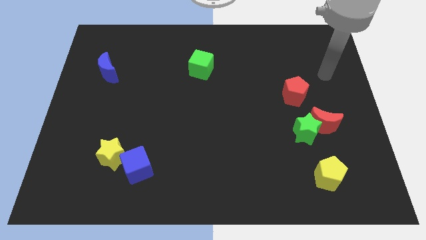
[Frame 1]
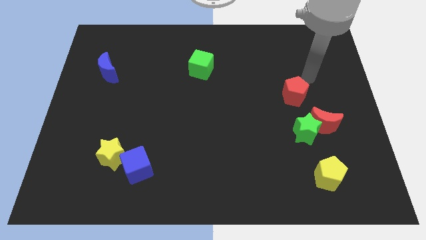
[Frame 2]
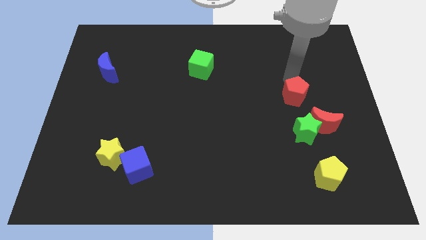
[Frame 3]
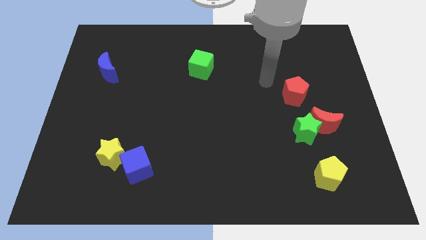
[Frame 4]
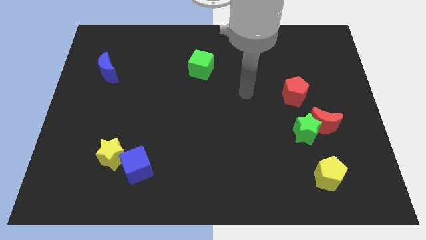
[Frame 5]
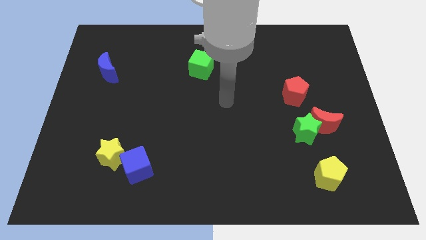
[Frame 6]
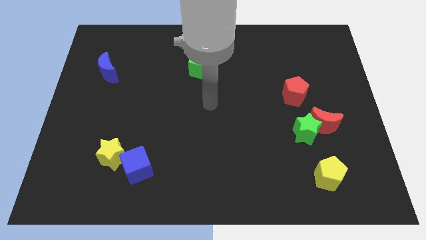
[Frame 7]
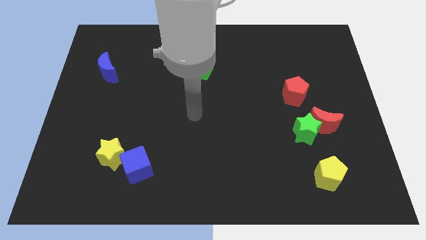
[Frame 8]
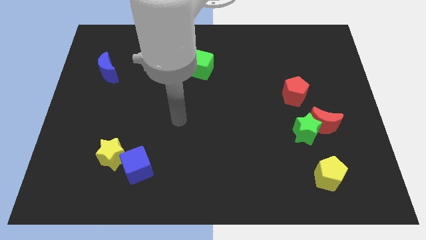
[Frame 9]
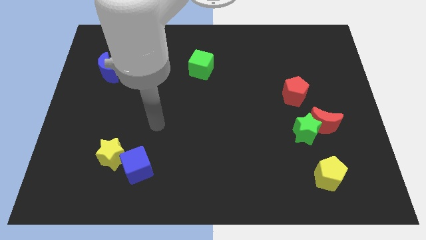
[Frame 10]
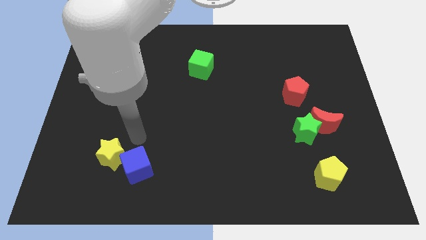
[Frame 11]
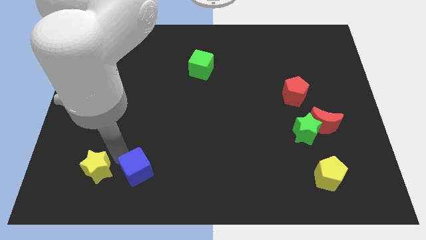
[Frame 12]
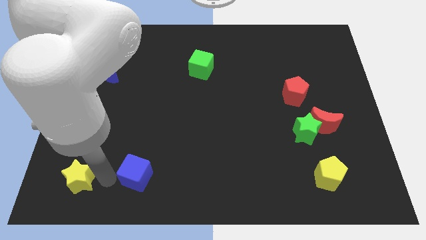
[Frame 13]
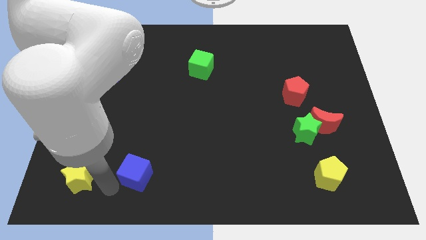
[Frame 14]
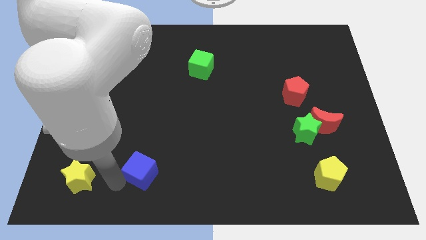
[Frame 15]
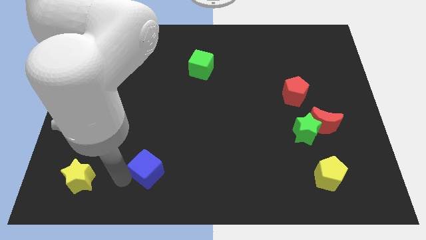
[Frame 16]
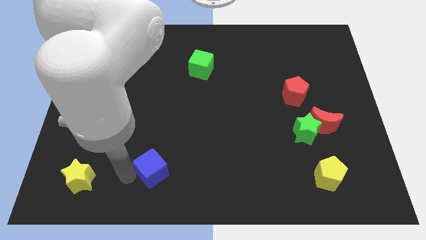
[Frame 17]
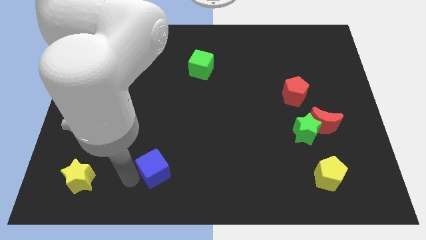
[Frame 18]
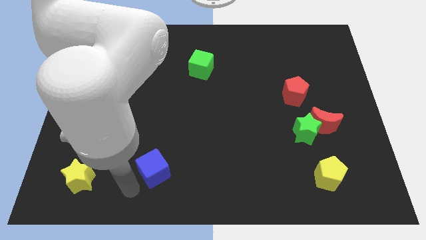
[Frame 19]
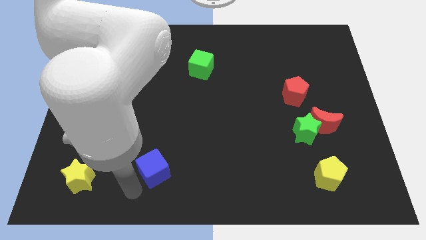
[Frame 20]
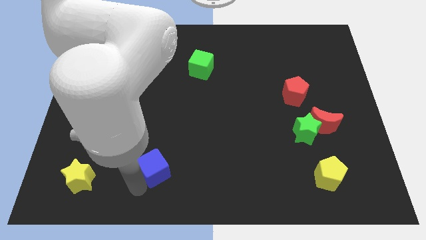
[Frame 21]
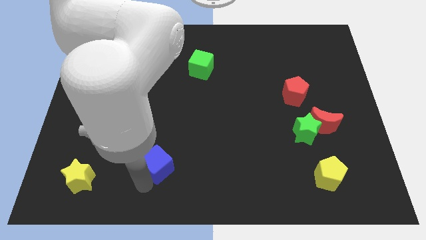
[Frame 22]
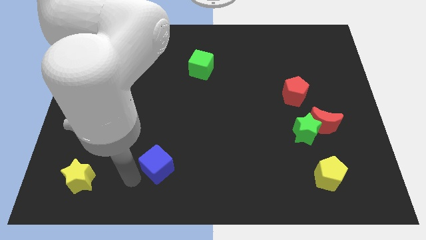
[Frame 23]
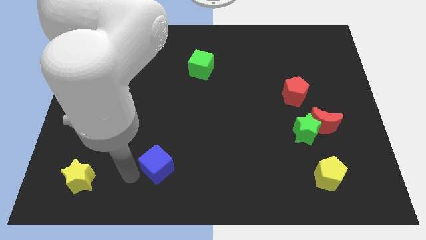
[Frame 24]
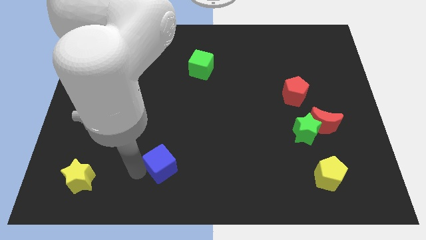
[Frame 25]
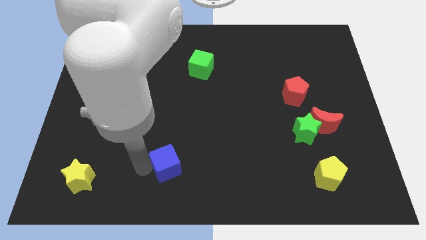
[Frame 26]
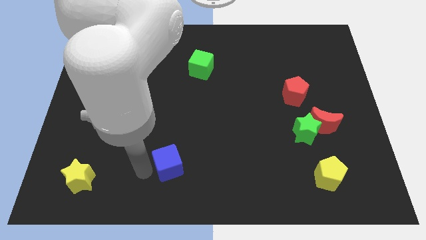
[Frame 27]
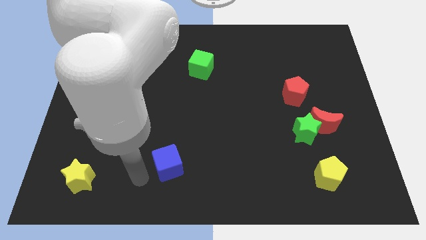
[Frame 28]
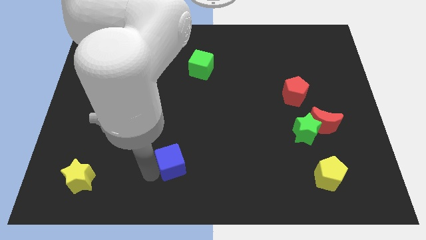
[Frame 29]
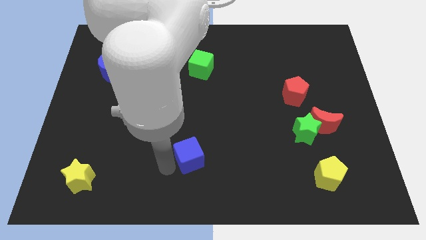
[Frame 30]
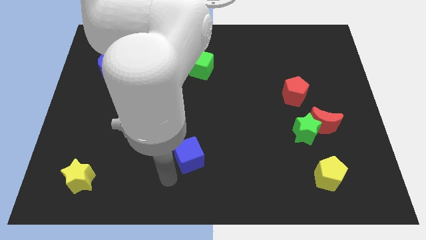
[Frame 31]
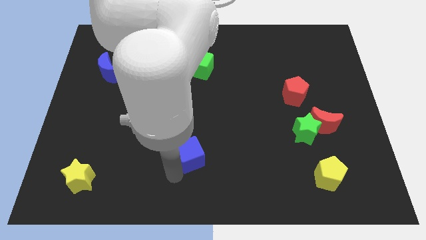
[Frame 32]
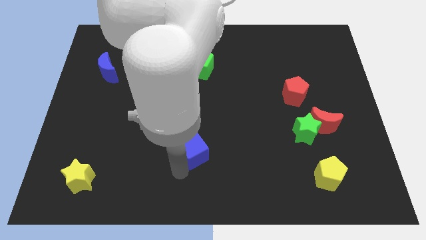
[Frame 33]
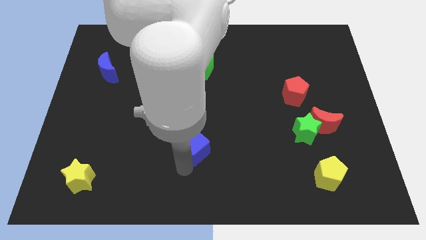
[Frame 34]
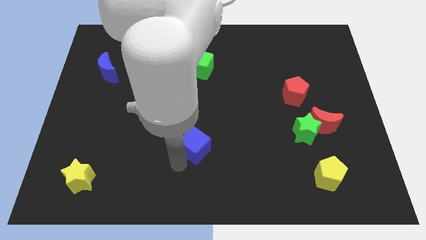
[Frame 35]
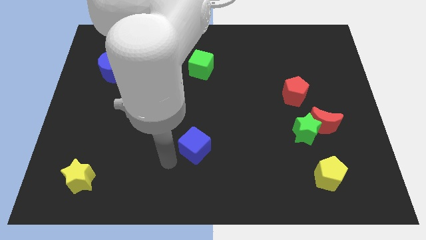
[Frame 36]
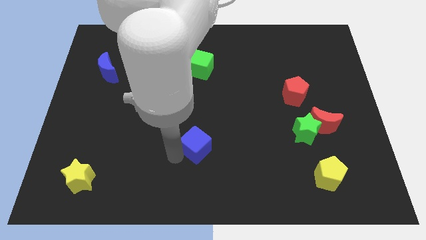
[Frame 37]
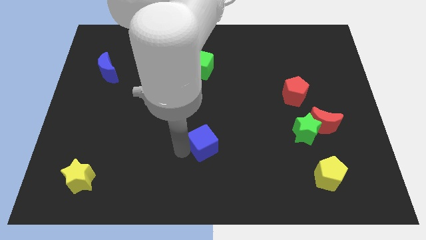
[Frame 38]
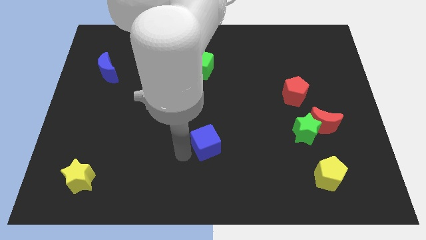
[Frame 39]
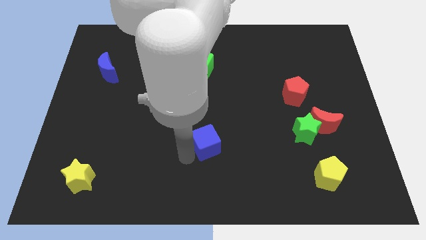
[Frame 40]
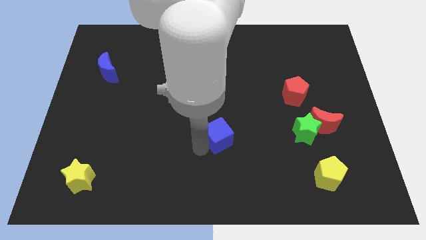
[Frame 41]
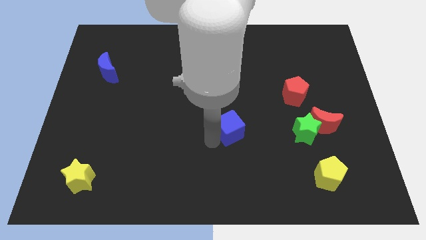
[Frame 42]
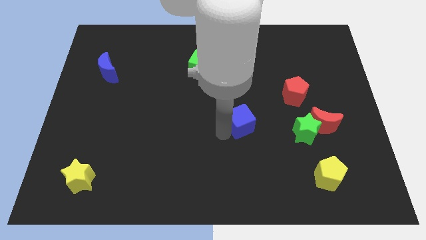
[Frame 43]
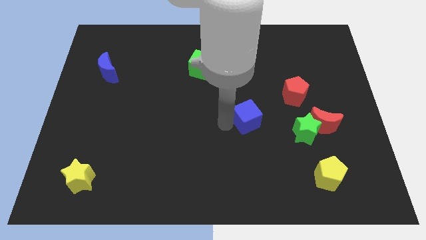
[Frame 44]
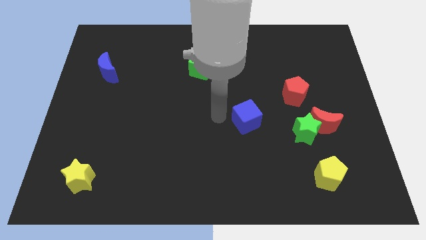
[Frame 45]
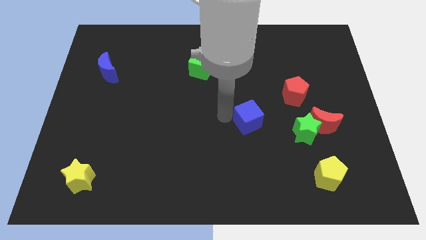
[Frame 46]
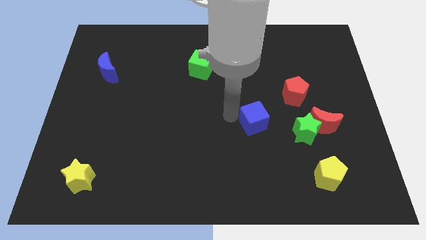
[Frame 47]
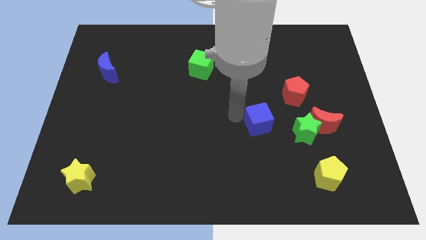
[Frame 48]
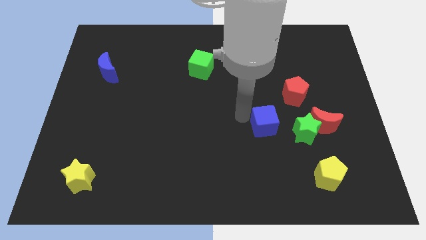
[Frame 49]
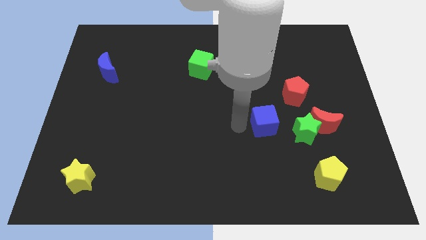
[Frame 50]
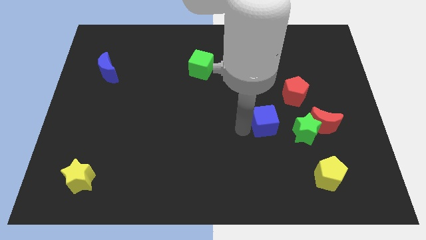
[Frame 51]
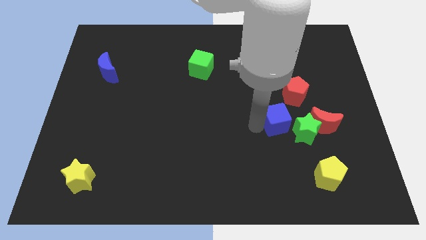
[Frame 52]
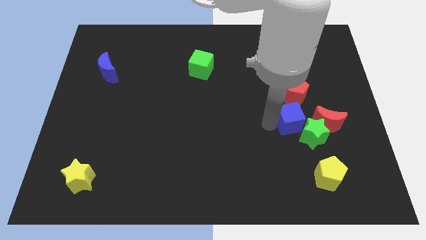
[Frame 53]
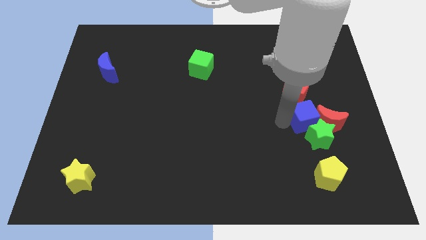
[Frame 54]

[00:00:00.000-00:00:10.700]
move the blue cube to the red moon

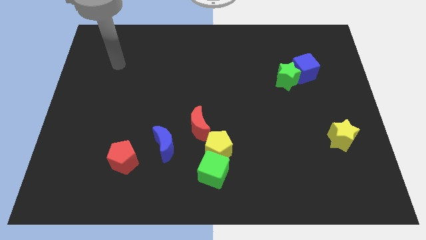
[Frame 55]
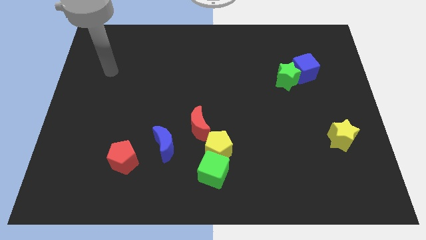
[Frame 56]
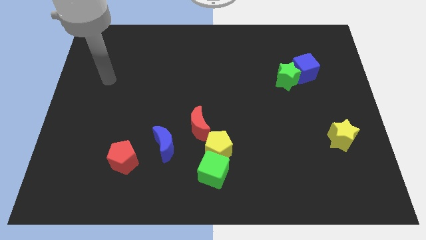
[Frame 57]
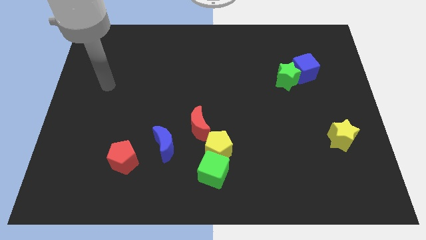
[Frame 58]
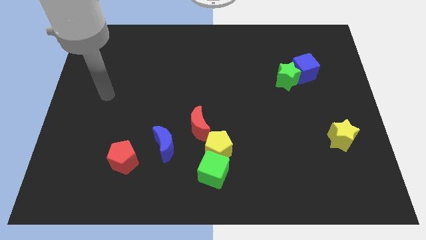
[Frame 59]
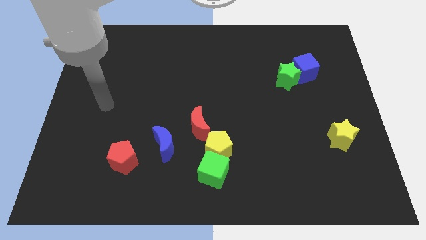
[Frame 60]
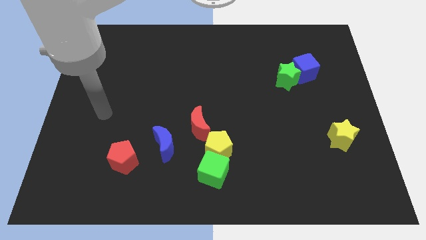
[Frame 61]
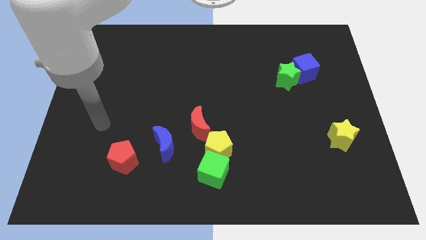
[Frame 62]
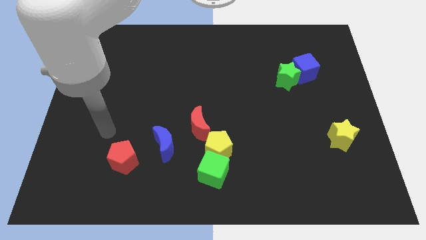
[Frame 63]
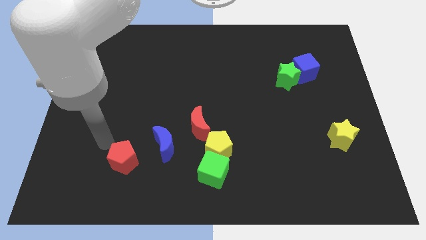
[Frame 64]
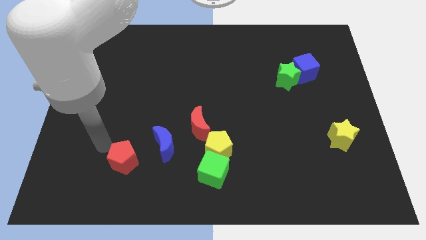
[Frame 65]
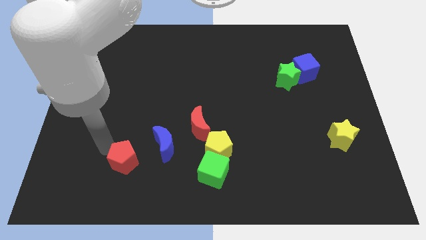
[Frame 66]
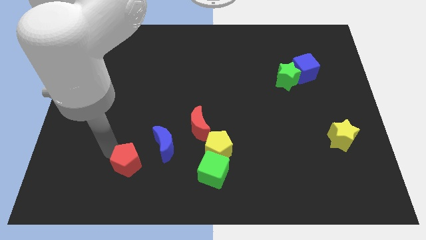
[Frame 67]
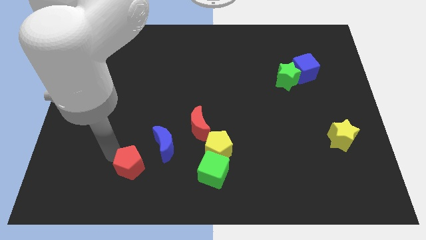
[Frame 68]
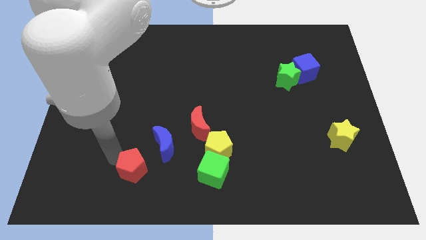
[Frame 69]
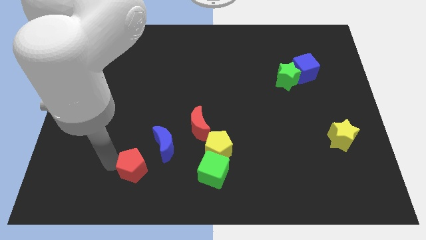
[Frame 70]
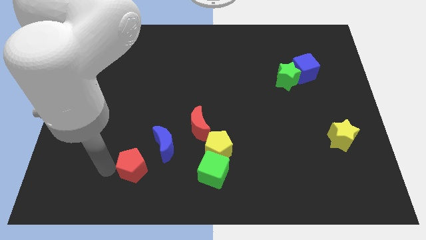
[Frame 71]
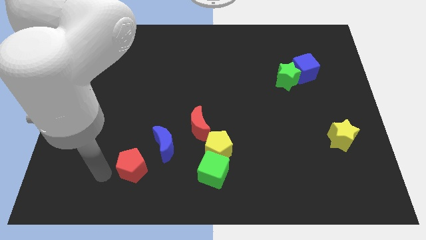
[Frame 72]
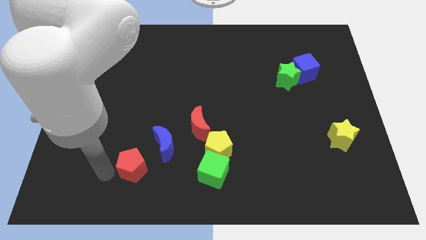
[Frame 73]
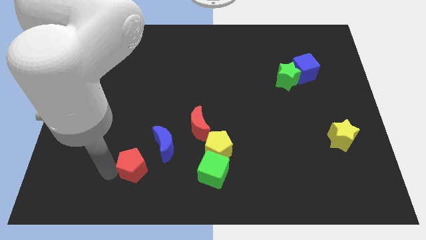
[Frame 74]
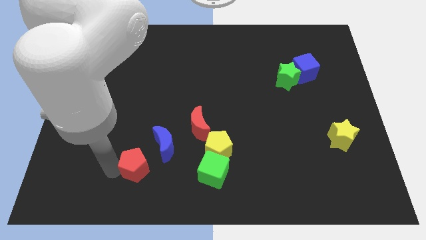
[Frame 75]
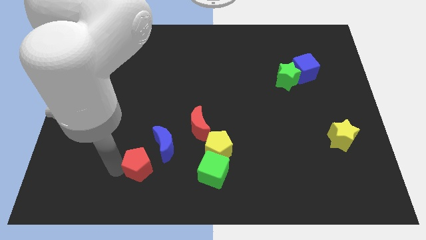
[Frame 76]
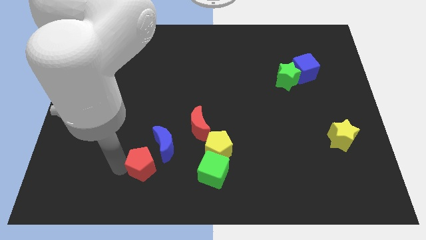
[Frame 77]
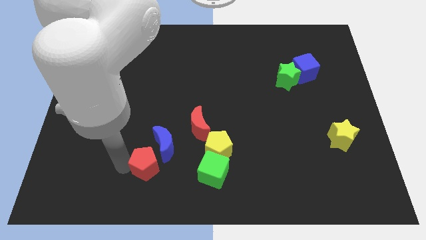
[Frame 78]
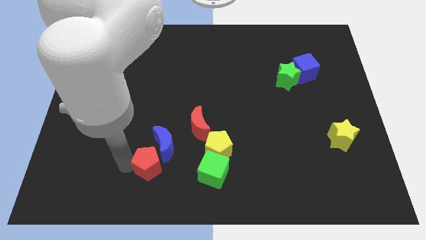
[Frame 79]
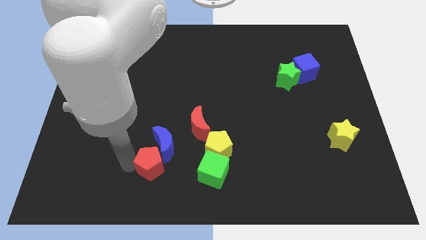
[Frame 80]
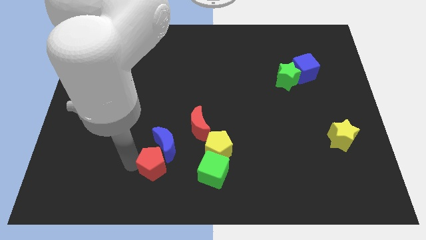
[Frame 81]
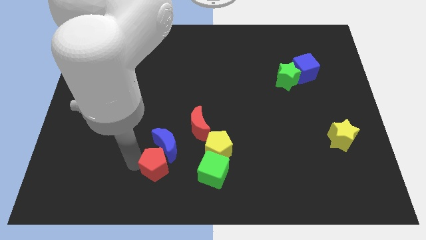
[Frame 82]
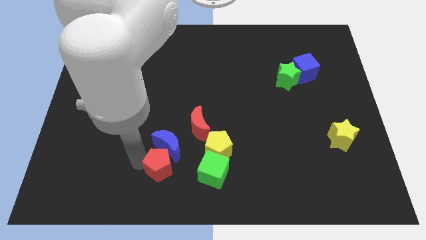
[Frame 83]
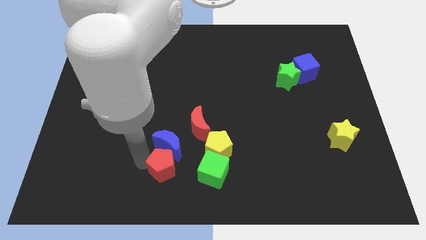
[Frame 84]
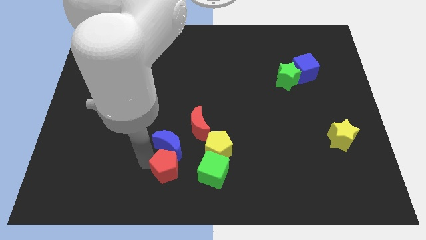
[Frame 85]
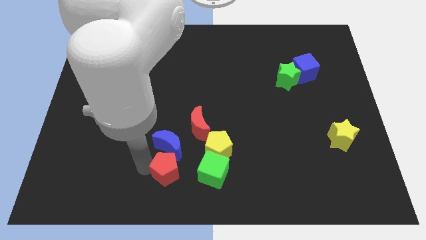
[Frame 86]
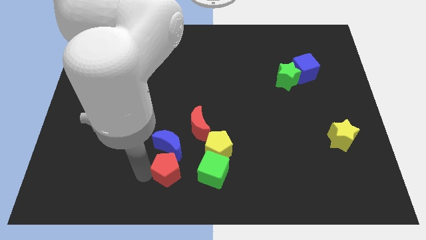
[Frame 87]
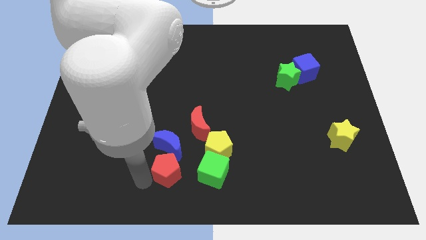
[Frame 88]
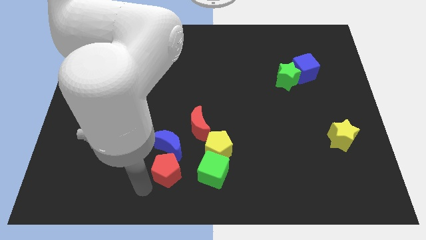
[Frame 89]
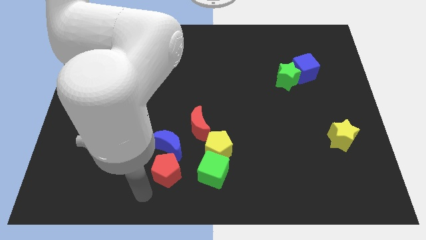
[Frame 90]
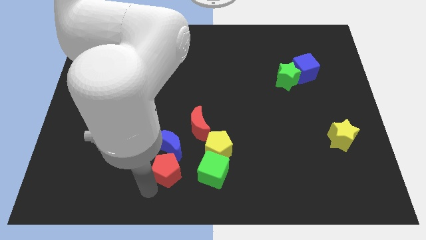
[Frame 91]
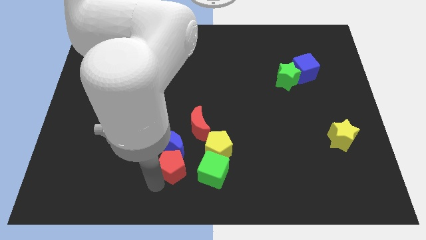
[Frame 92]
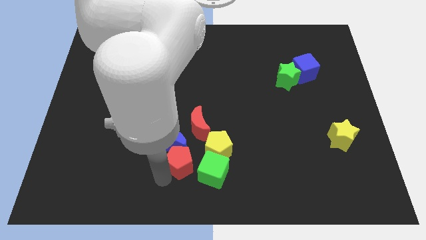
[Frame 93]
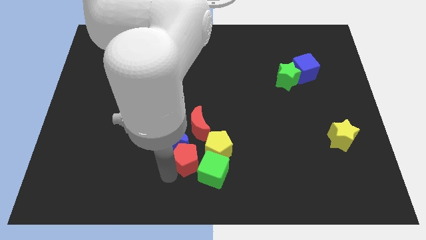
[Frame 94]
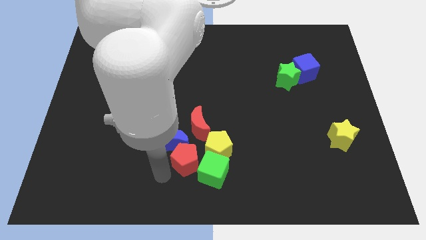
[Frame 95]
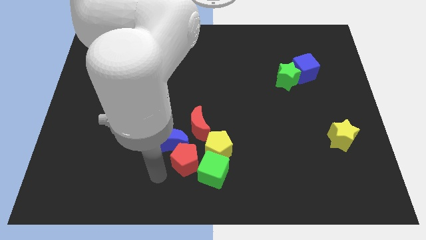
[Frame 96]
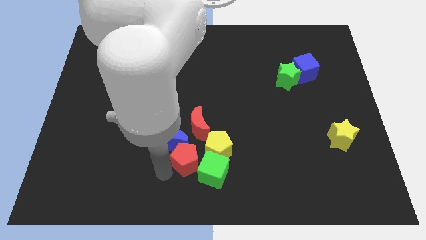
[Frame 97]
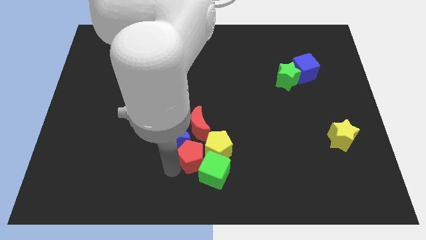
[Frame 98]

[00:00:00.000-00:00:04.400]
move the red pentagon to the yellow pentagon
